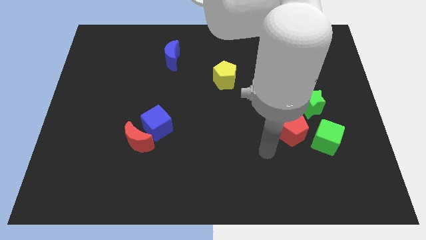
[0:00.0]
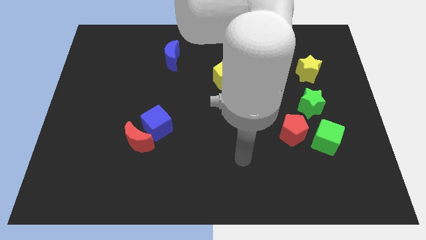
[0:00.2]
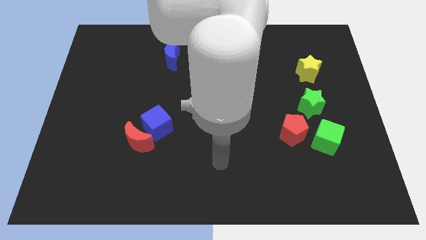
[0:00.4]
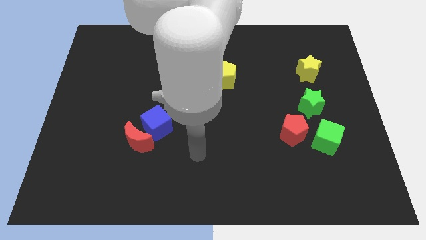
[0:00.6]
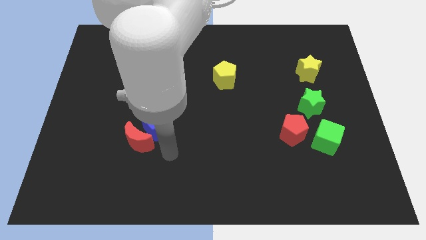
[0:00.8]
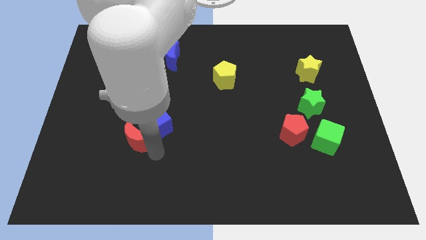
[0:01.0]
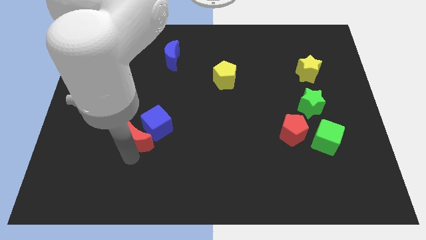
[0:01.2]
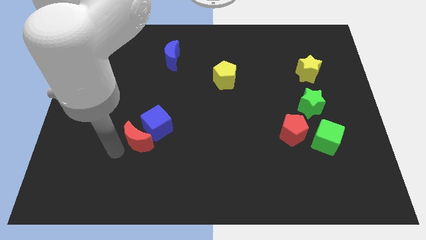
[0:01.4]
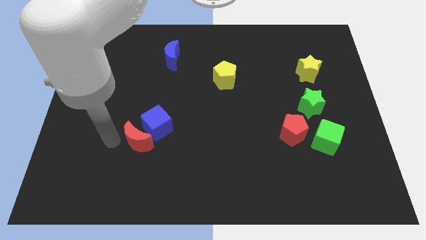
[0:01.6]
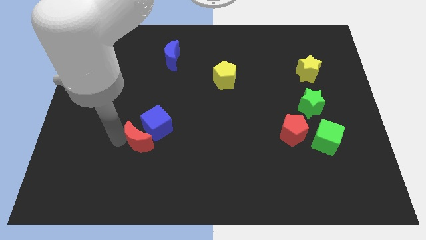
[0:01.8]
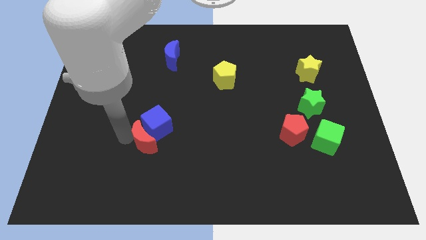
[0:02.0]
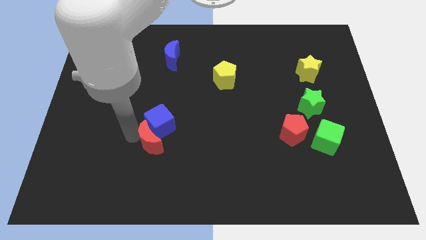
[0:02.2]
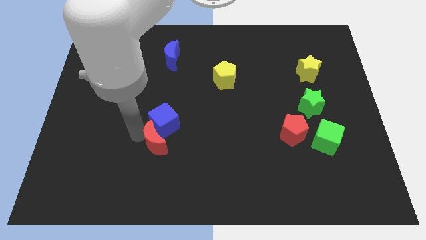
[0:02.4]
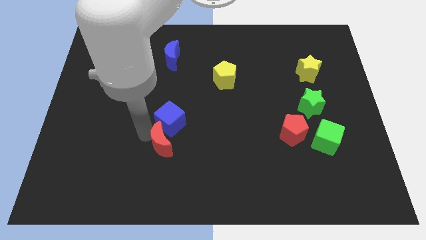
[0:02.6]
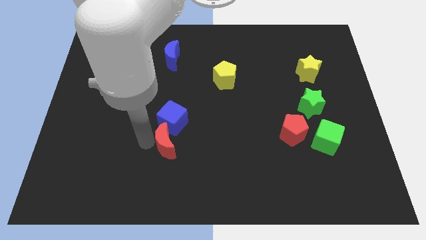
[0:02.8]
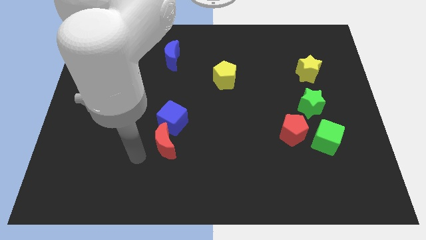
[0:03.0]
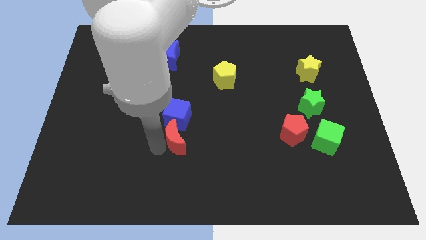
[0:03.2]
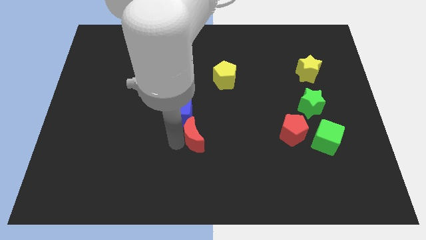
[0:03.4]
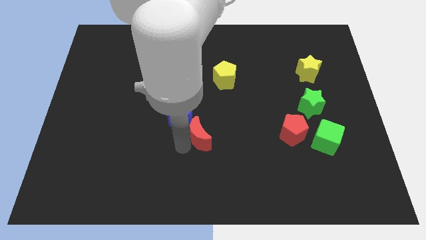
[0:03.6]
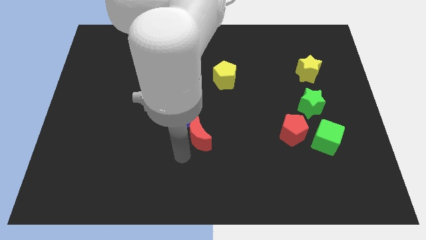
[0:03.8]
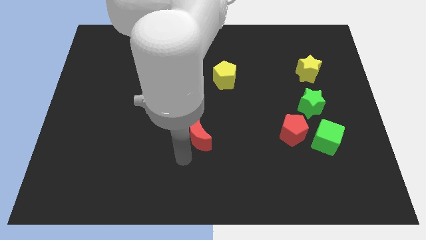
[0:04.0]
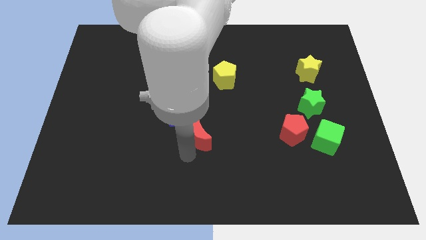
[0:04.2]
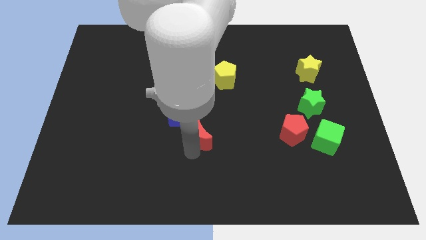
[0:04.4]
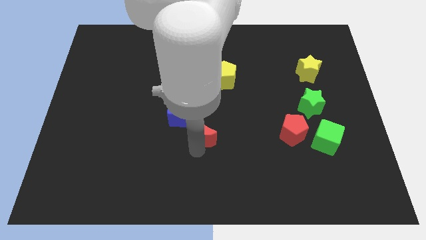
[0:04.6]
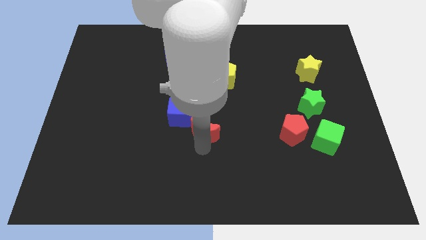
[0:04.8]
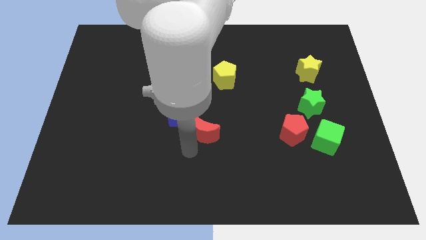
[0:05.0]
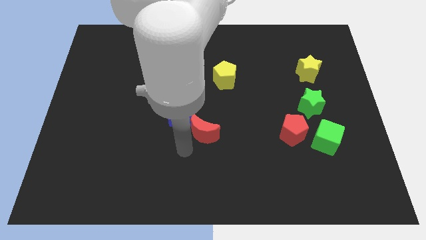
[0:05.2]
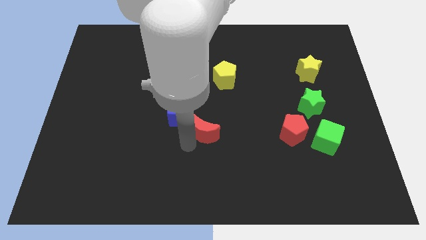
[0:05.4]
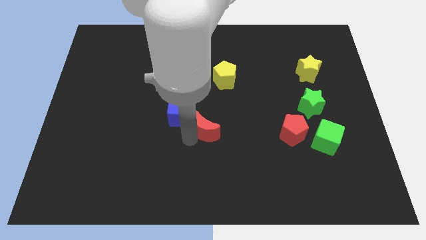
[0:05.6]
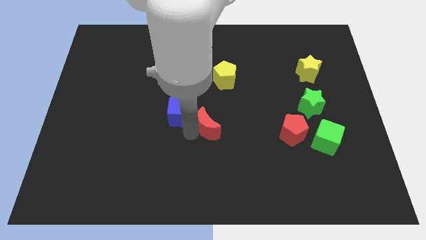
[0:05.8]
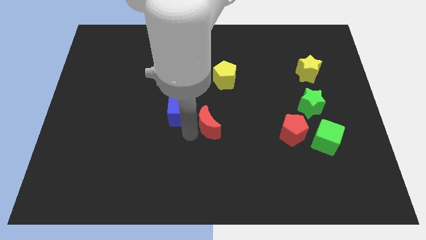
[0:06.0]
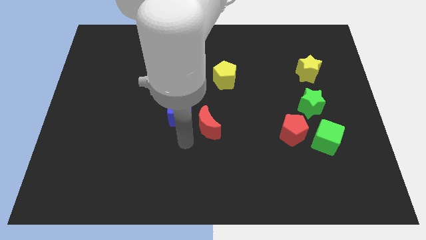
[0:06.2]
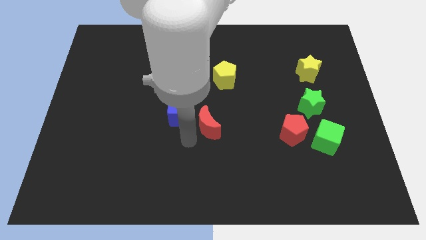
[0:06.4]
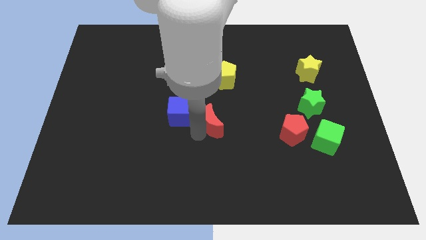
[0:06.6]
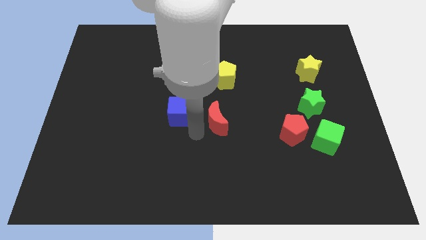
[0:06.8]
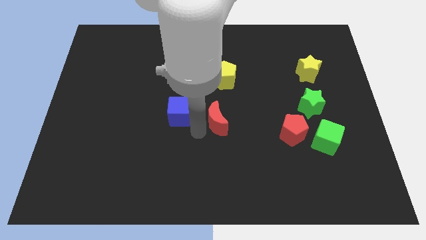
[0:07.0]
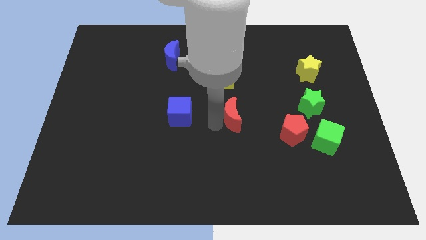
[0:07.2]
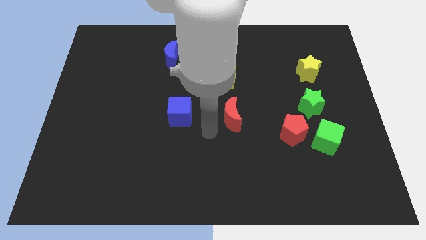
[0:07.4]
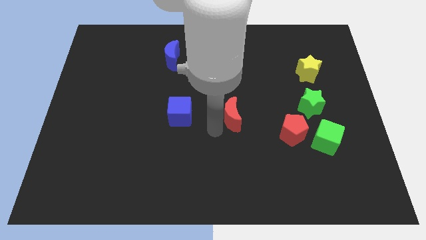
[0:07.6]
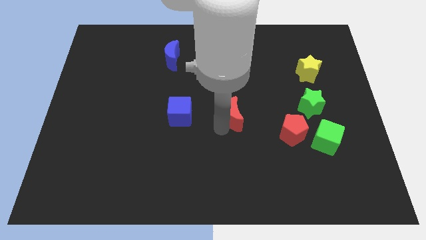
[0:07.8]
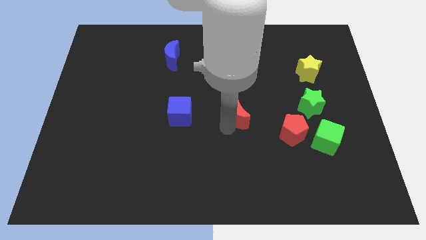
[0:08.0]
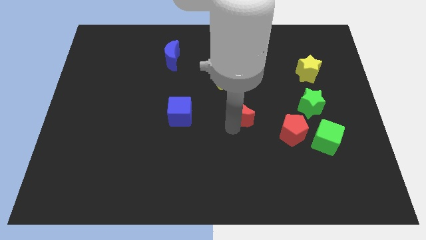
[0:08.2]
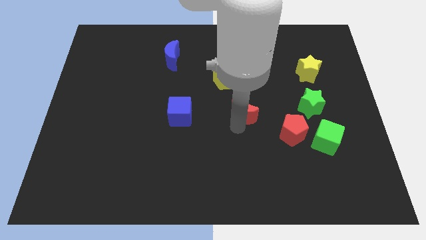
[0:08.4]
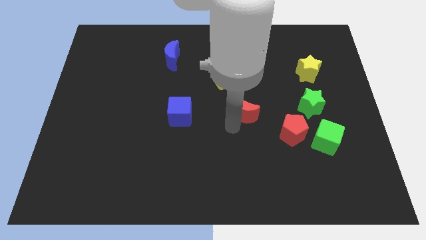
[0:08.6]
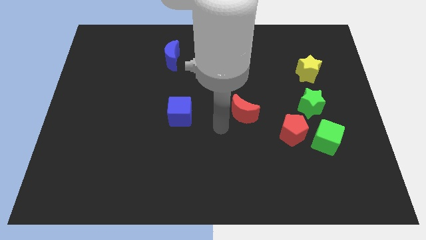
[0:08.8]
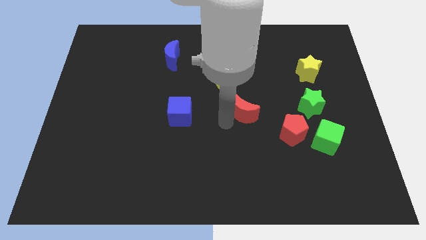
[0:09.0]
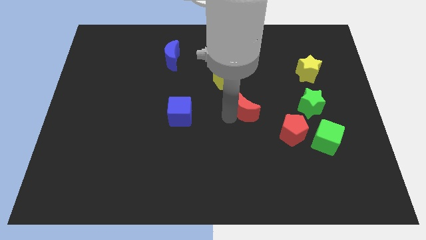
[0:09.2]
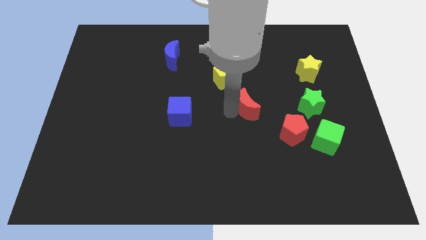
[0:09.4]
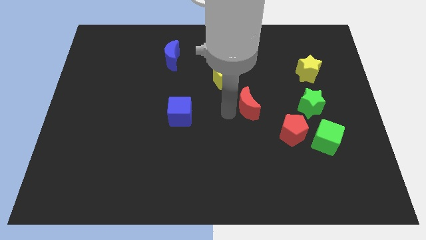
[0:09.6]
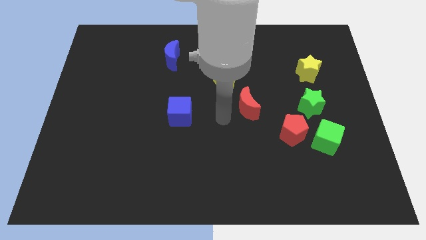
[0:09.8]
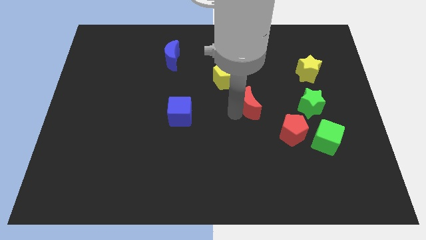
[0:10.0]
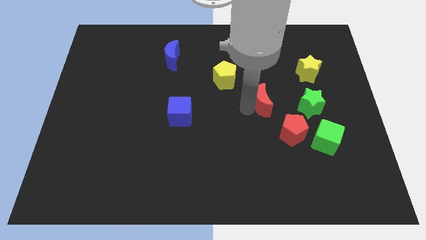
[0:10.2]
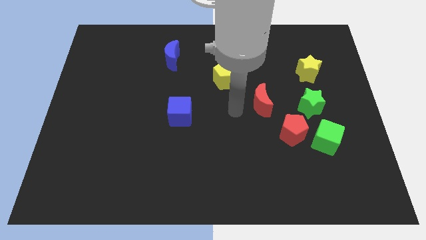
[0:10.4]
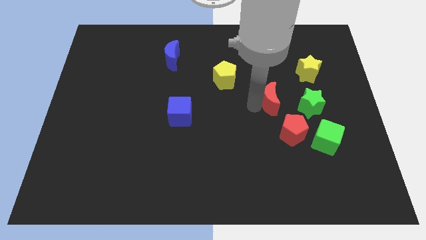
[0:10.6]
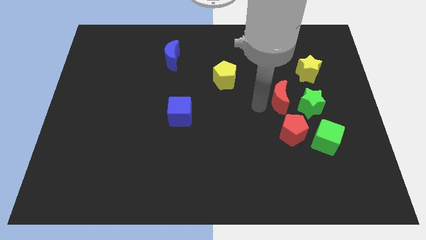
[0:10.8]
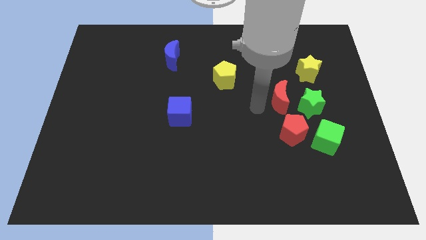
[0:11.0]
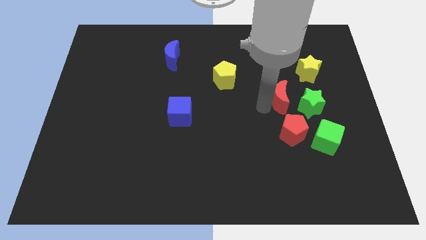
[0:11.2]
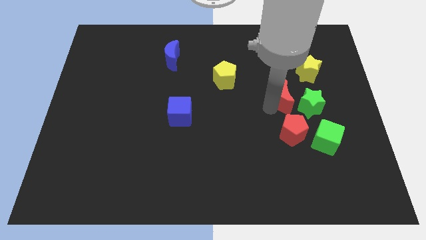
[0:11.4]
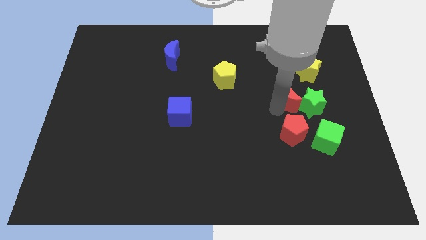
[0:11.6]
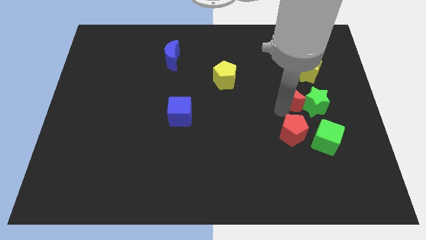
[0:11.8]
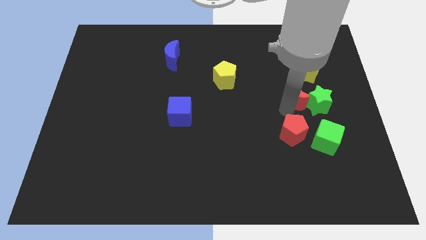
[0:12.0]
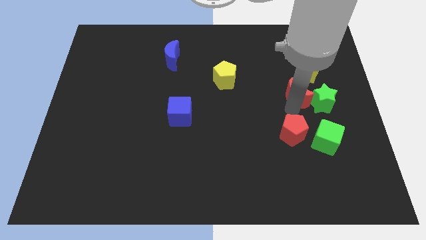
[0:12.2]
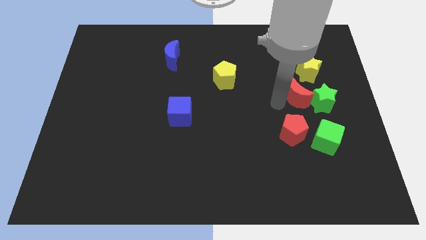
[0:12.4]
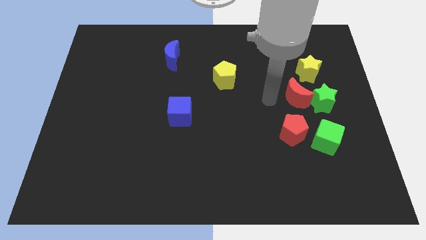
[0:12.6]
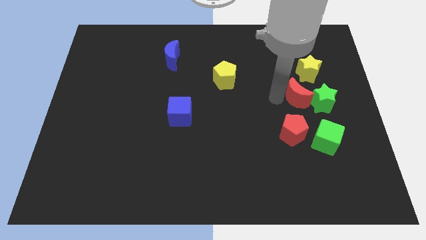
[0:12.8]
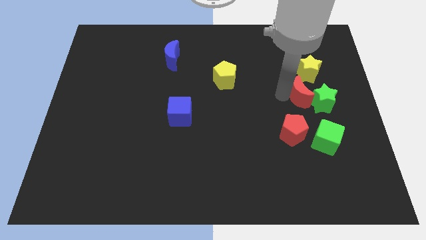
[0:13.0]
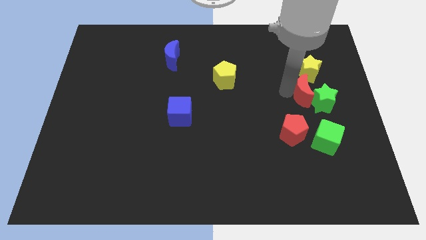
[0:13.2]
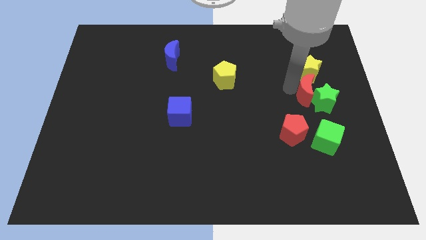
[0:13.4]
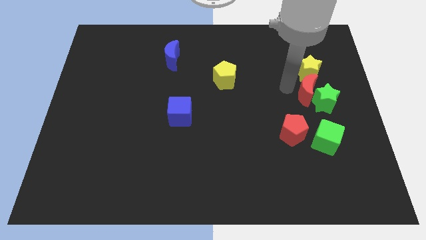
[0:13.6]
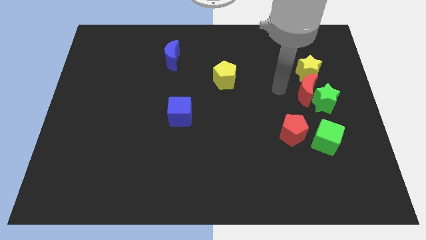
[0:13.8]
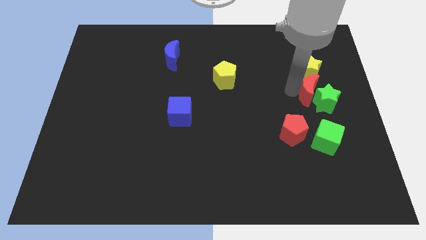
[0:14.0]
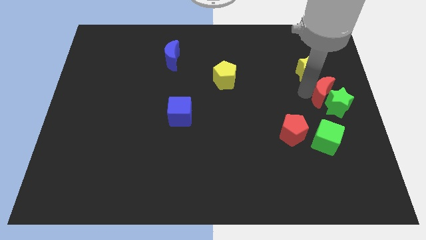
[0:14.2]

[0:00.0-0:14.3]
move the red moon to the center right
